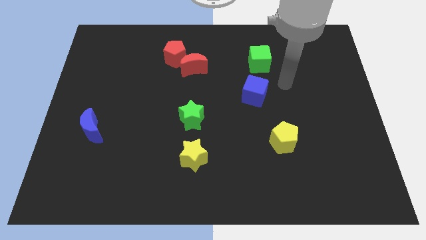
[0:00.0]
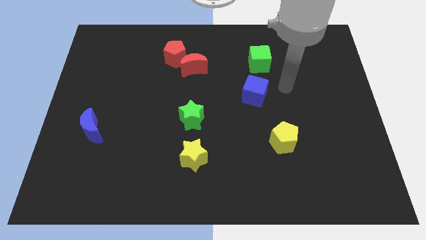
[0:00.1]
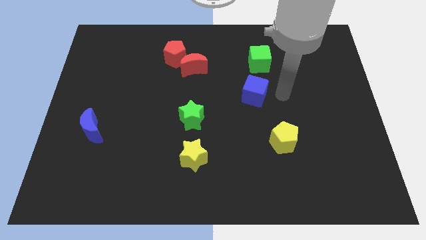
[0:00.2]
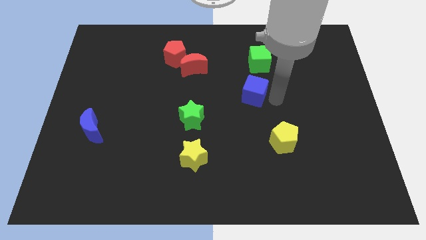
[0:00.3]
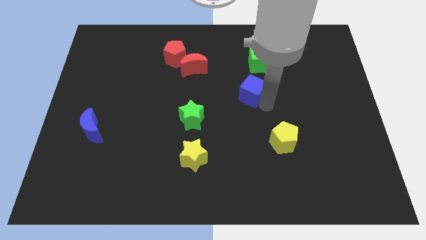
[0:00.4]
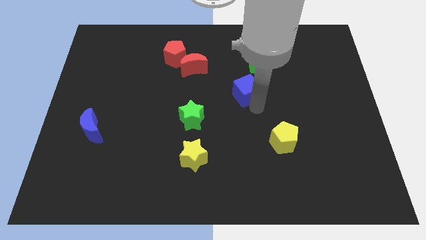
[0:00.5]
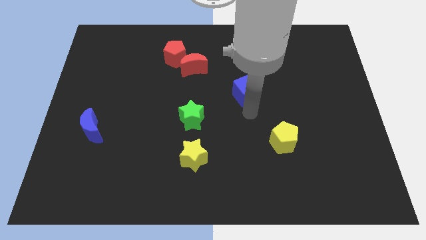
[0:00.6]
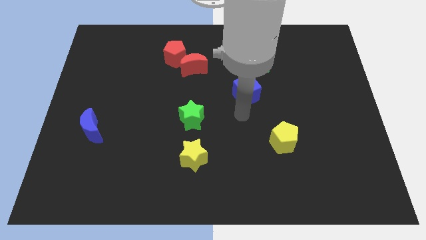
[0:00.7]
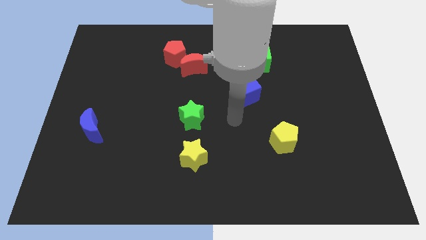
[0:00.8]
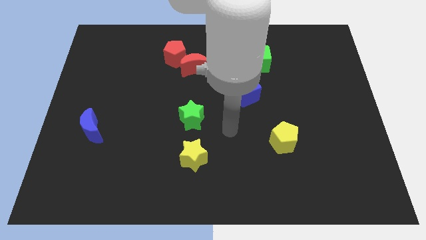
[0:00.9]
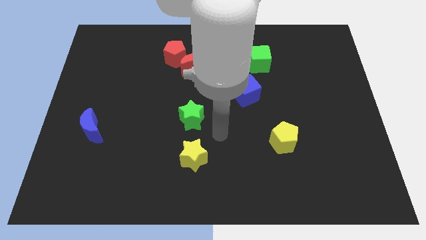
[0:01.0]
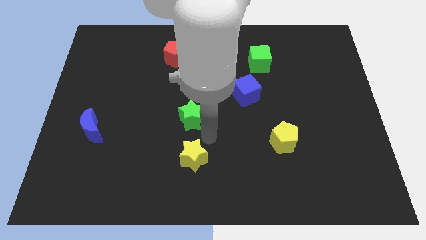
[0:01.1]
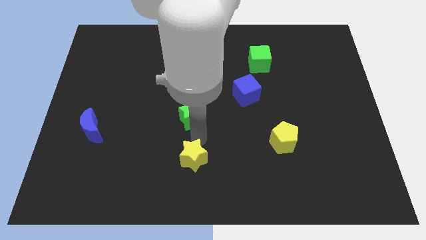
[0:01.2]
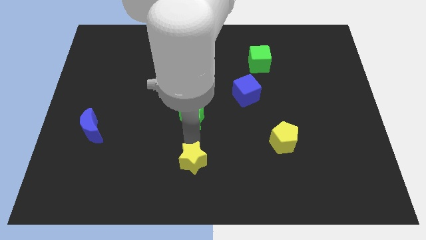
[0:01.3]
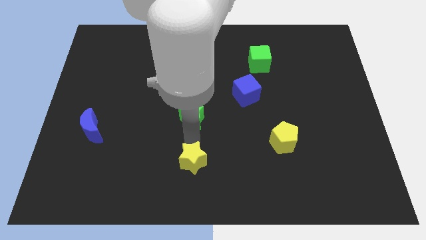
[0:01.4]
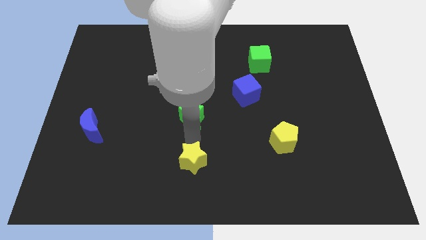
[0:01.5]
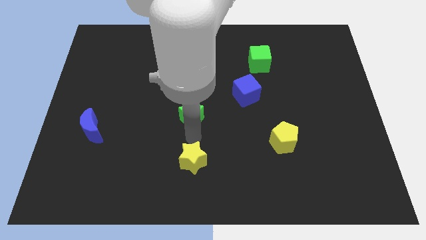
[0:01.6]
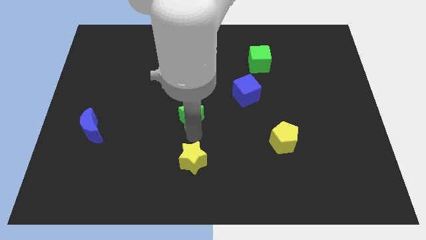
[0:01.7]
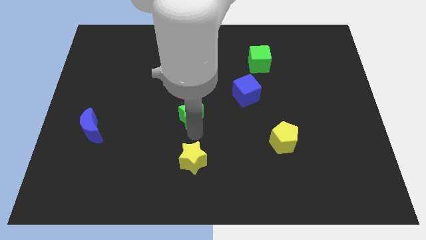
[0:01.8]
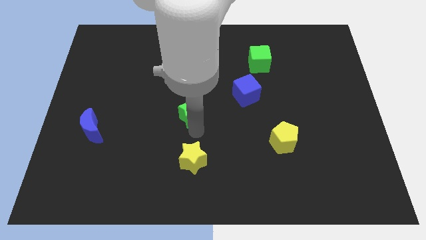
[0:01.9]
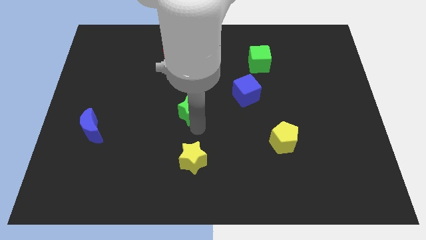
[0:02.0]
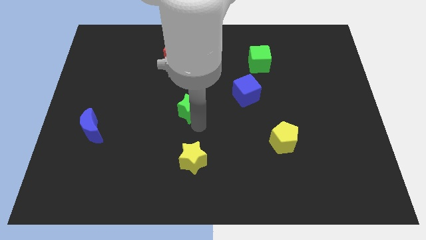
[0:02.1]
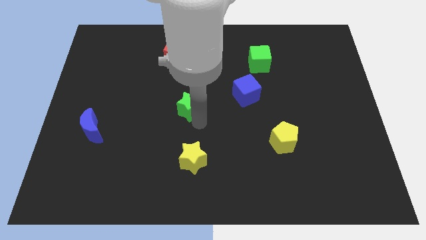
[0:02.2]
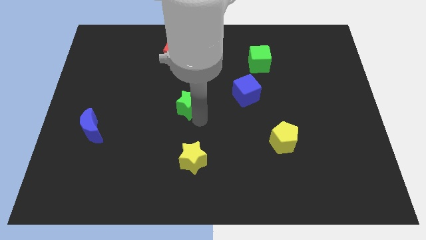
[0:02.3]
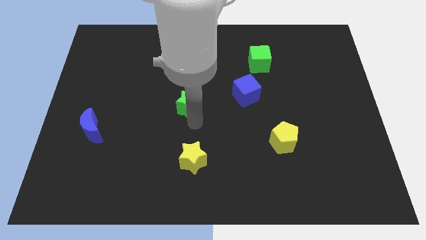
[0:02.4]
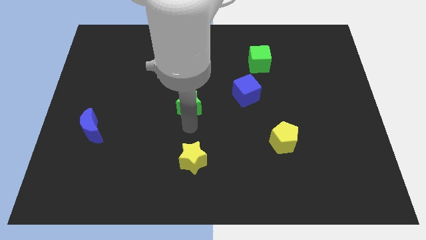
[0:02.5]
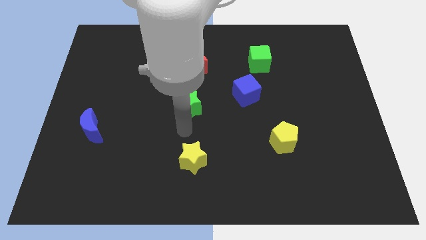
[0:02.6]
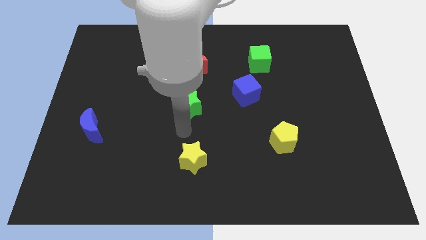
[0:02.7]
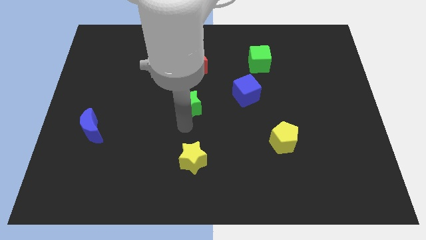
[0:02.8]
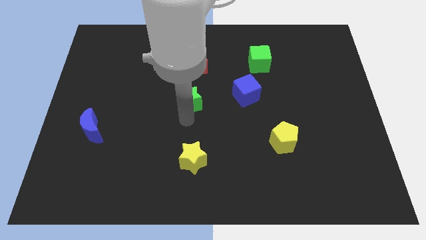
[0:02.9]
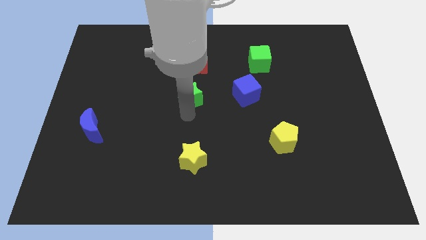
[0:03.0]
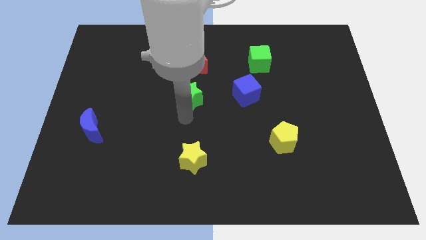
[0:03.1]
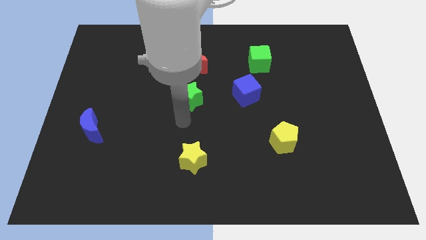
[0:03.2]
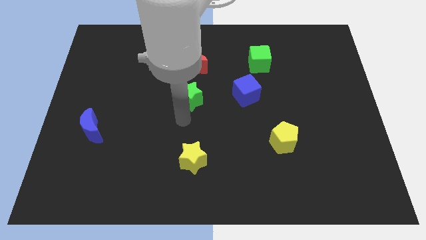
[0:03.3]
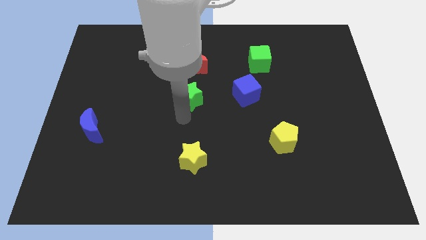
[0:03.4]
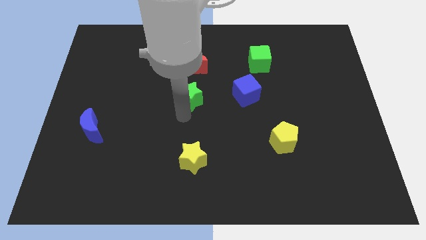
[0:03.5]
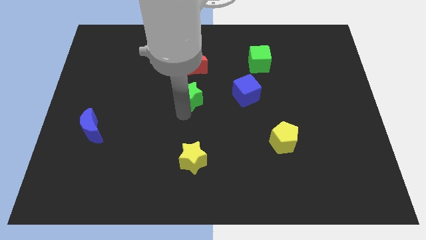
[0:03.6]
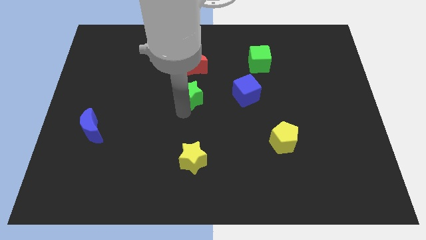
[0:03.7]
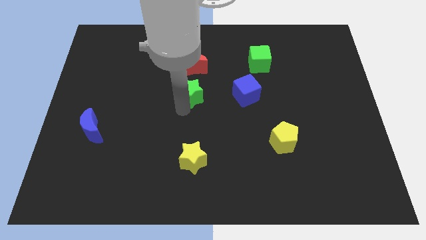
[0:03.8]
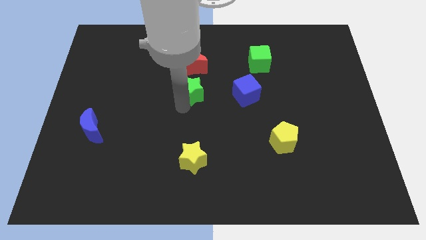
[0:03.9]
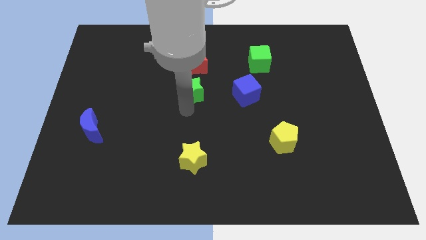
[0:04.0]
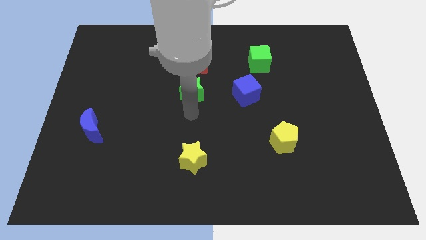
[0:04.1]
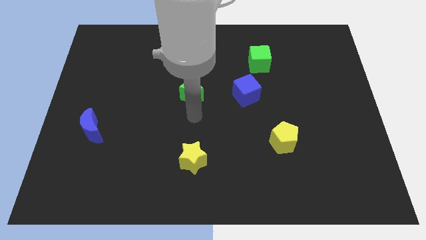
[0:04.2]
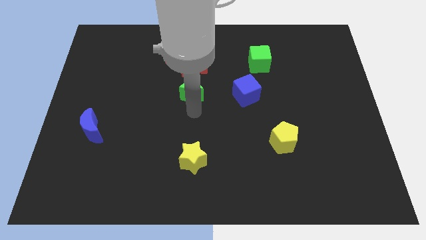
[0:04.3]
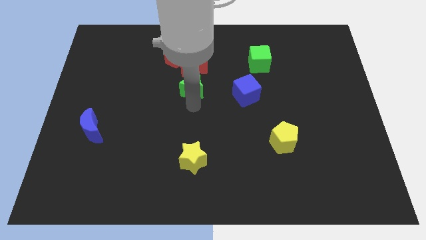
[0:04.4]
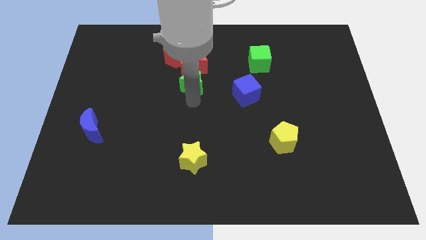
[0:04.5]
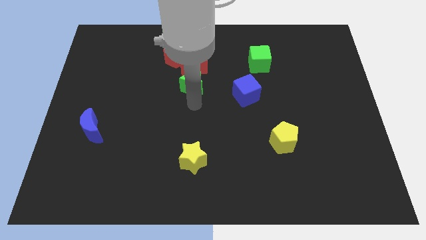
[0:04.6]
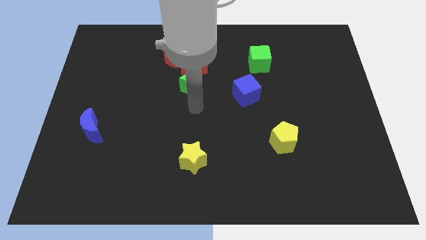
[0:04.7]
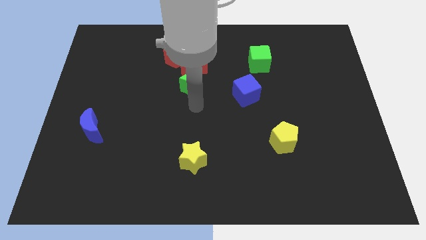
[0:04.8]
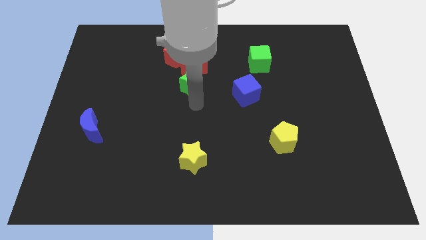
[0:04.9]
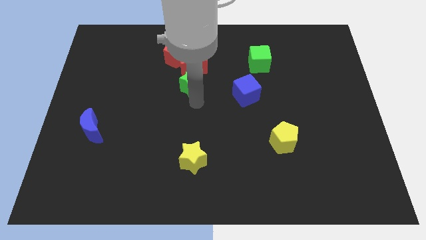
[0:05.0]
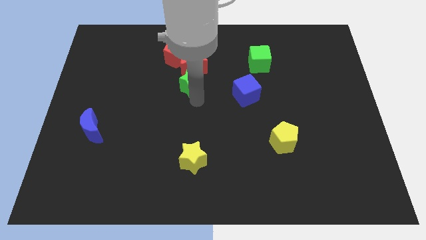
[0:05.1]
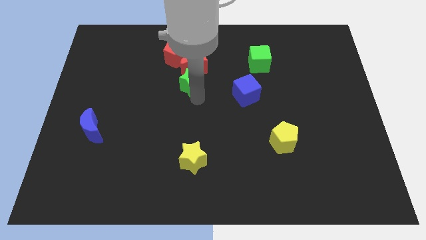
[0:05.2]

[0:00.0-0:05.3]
push the green star next to the red moon

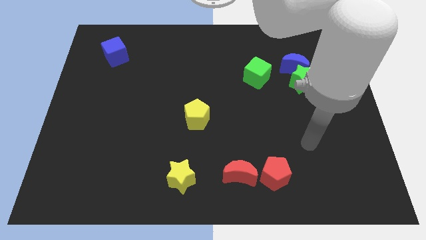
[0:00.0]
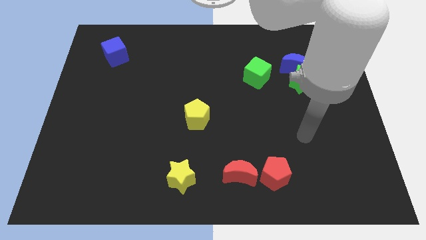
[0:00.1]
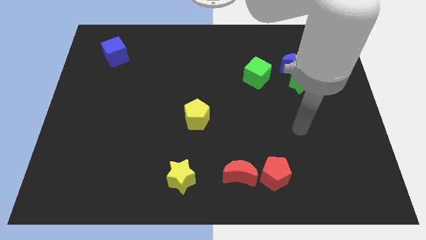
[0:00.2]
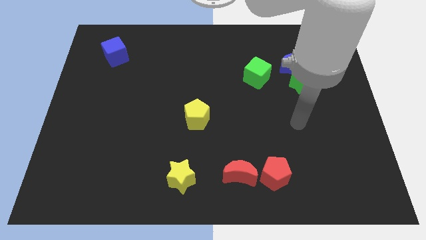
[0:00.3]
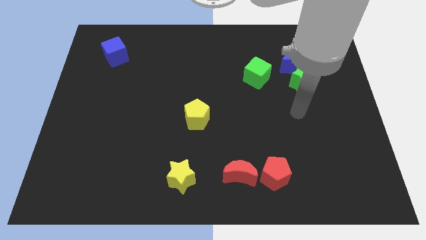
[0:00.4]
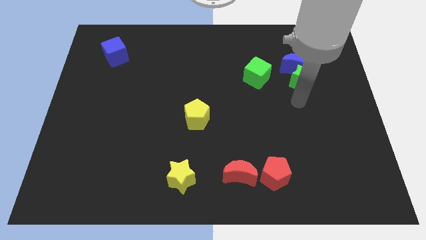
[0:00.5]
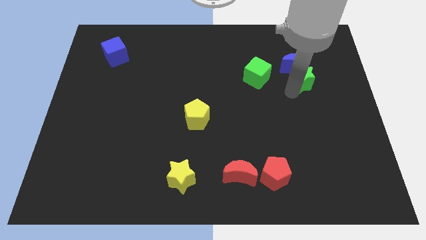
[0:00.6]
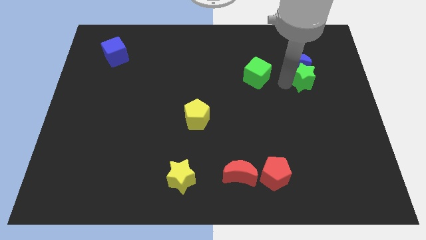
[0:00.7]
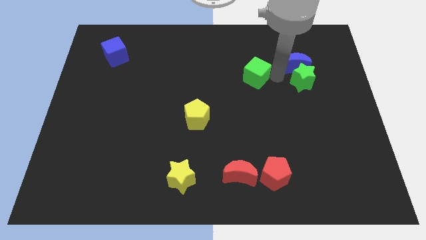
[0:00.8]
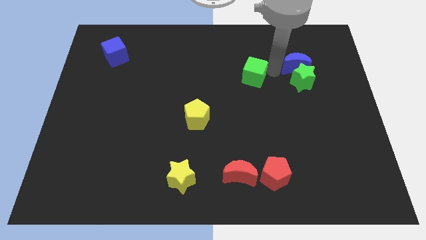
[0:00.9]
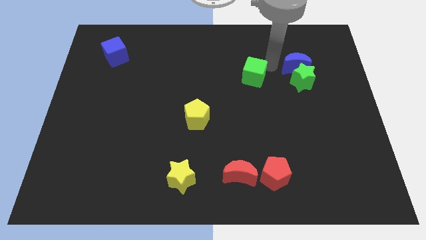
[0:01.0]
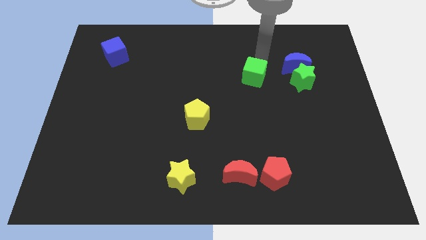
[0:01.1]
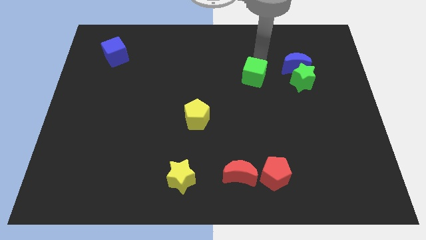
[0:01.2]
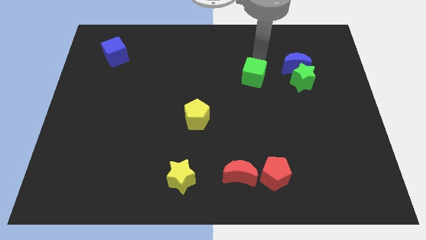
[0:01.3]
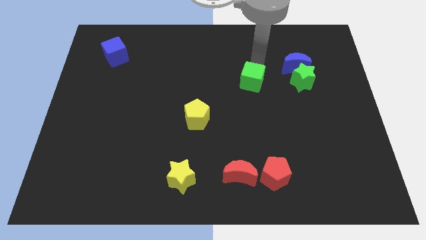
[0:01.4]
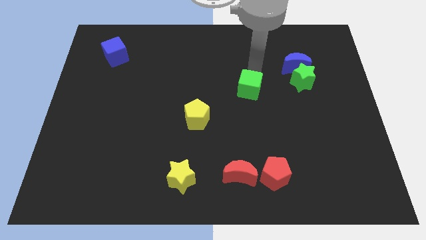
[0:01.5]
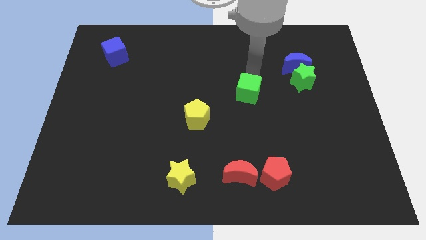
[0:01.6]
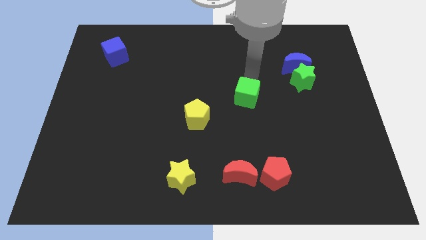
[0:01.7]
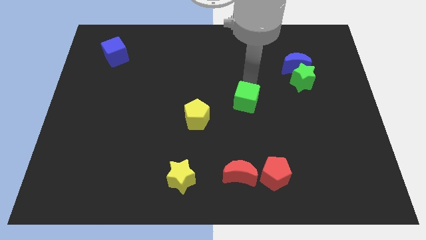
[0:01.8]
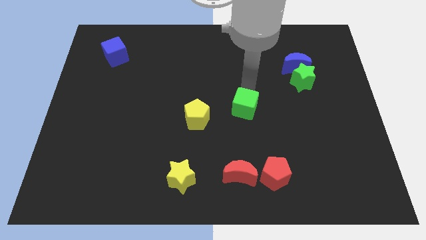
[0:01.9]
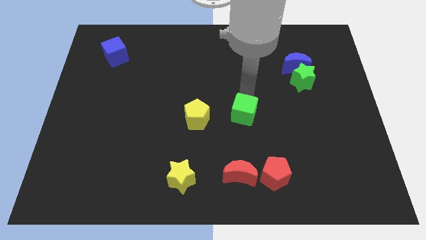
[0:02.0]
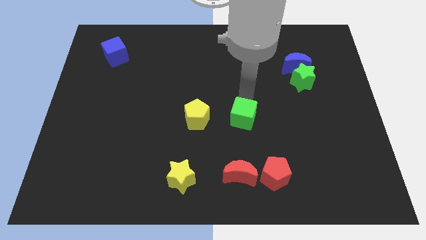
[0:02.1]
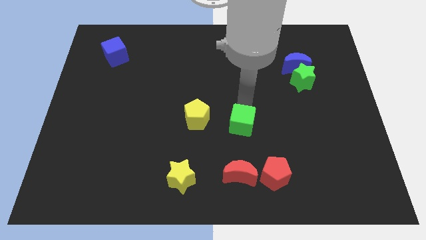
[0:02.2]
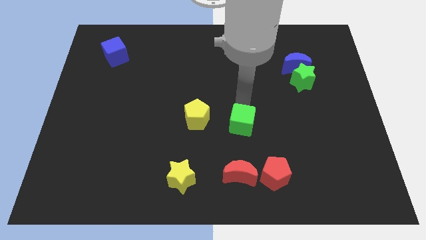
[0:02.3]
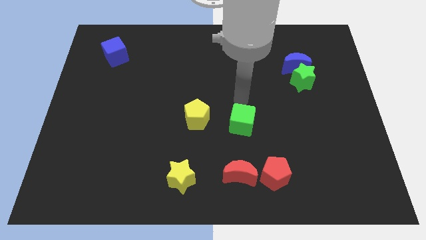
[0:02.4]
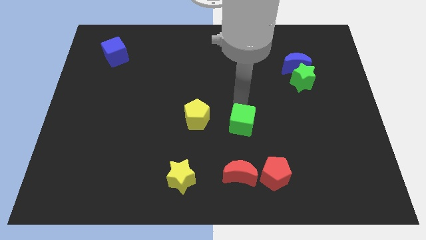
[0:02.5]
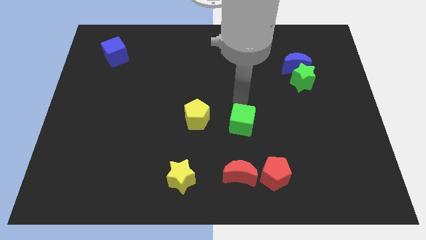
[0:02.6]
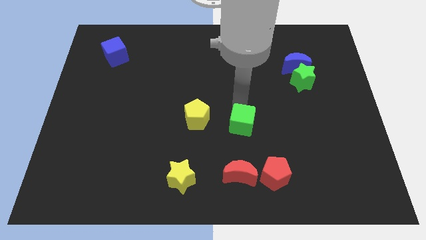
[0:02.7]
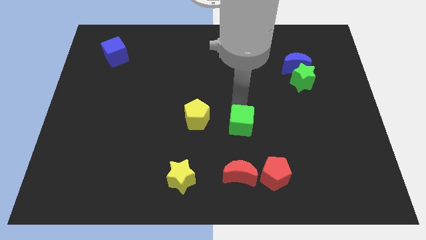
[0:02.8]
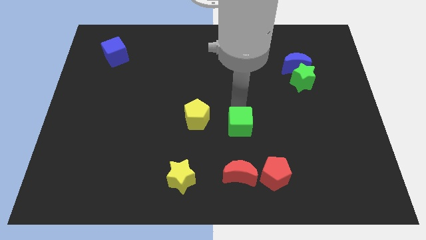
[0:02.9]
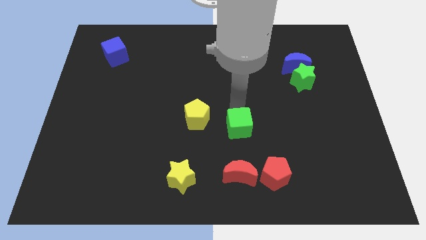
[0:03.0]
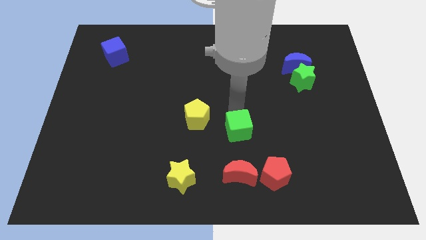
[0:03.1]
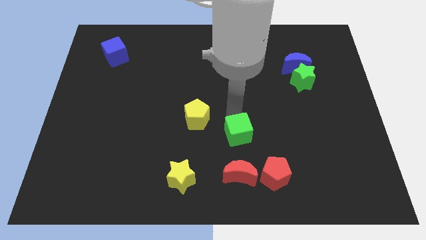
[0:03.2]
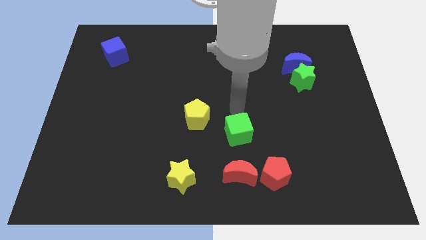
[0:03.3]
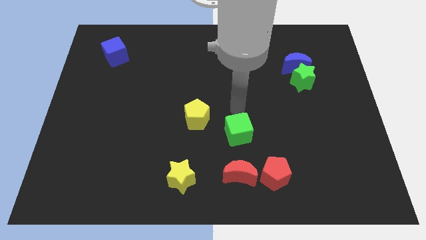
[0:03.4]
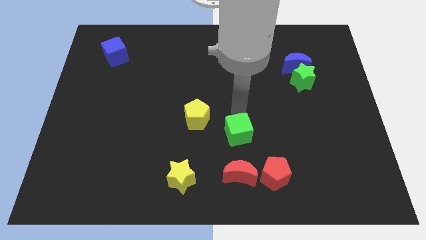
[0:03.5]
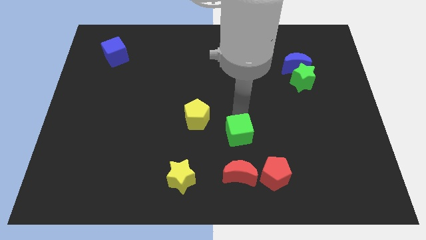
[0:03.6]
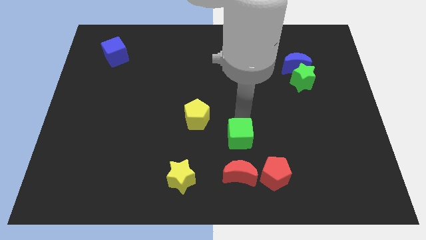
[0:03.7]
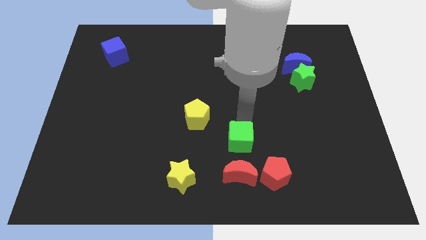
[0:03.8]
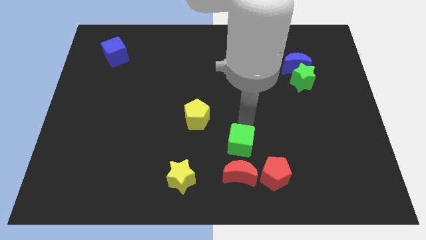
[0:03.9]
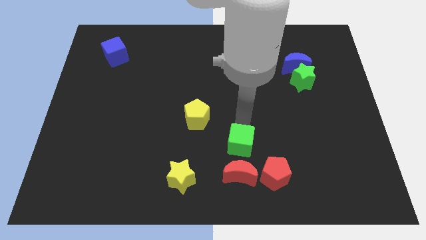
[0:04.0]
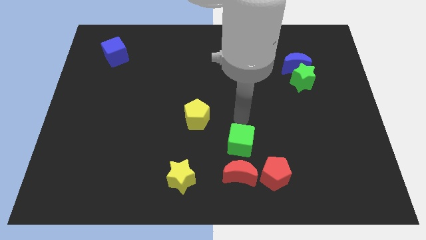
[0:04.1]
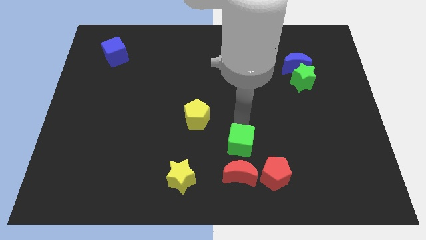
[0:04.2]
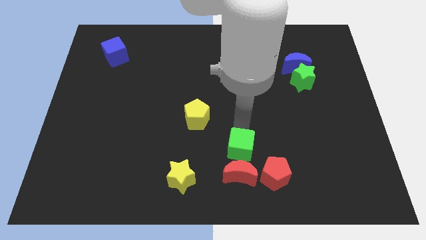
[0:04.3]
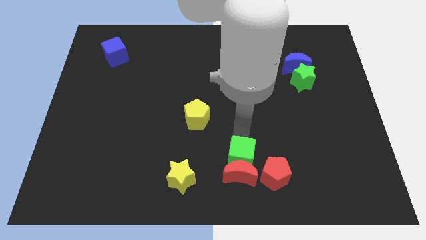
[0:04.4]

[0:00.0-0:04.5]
move the green cube to the red moon
